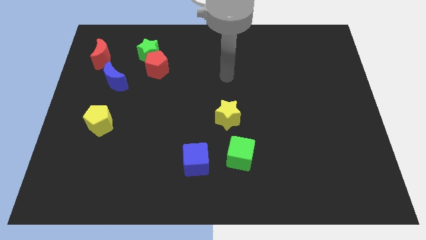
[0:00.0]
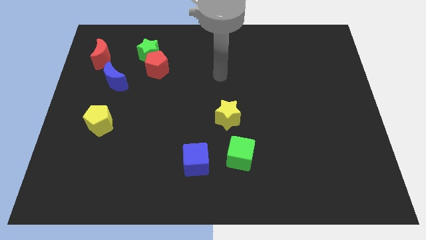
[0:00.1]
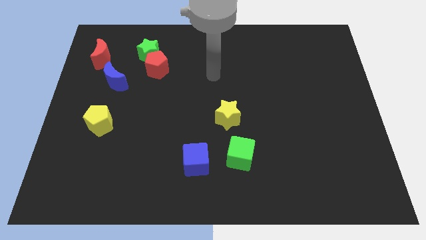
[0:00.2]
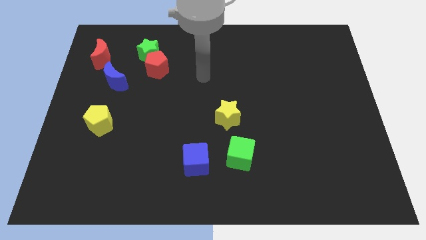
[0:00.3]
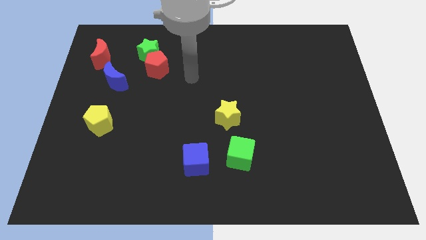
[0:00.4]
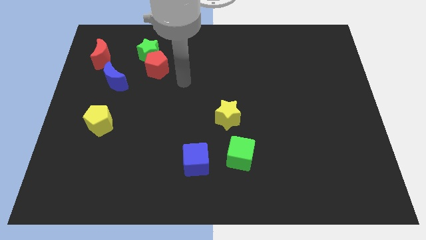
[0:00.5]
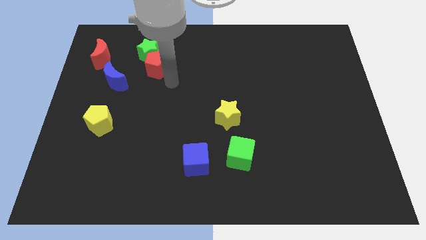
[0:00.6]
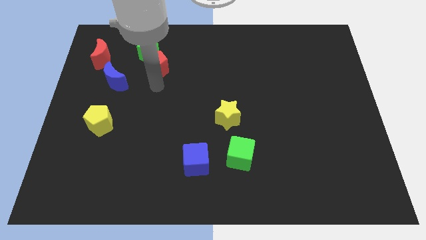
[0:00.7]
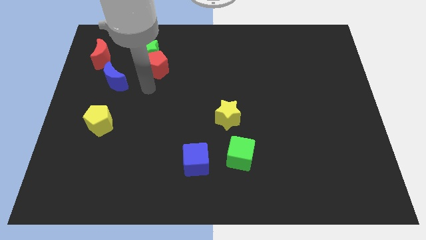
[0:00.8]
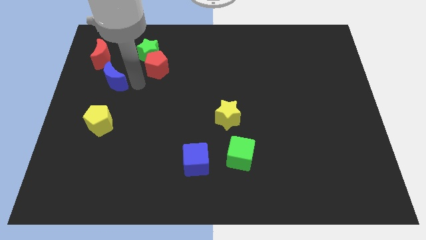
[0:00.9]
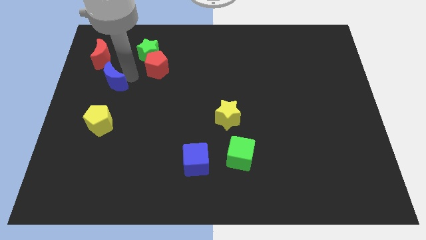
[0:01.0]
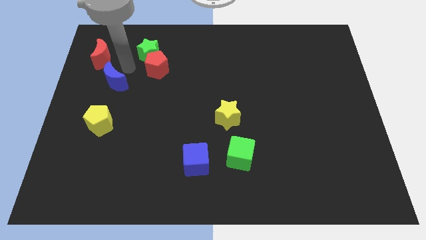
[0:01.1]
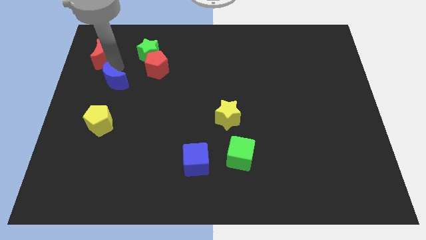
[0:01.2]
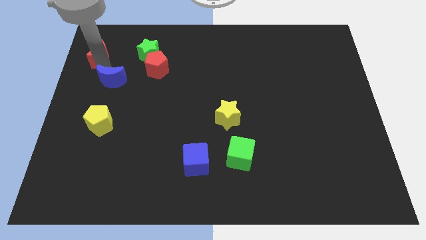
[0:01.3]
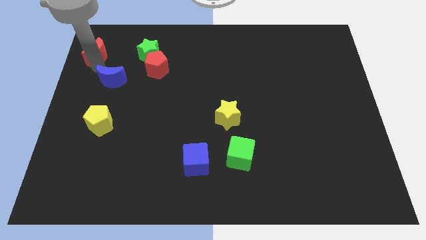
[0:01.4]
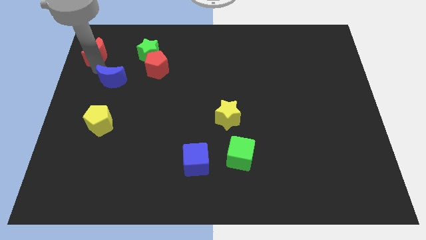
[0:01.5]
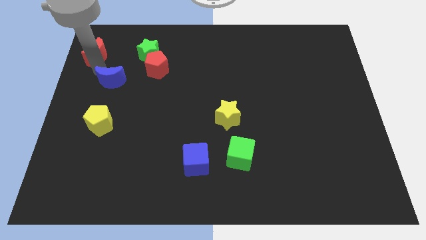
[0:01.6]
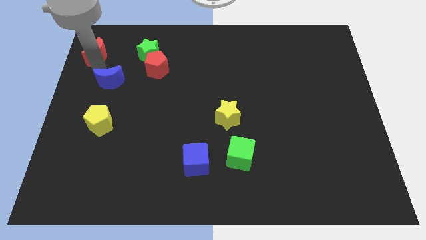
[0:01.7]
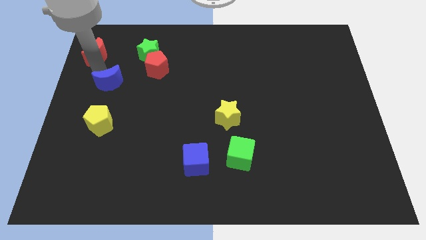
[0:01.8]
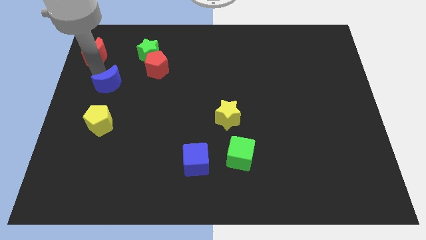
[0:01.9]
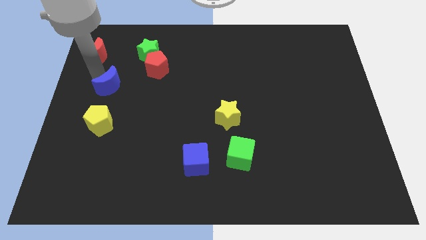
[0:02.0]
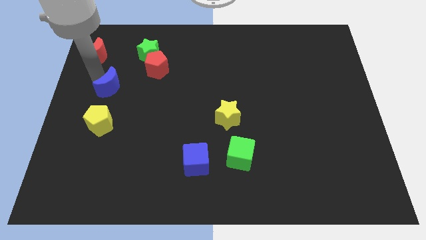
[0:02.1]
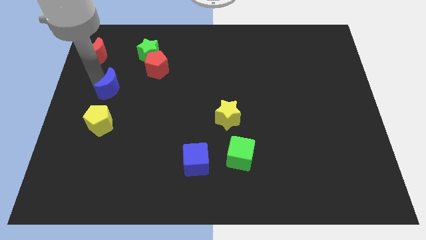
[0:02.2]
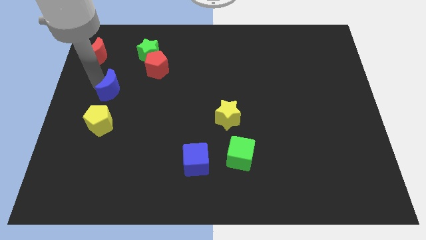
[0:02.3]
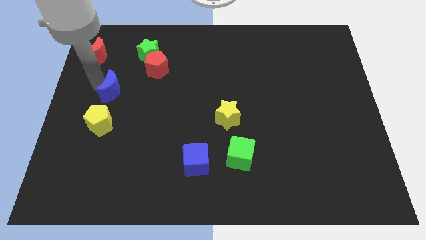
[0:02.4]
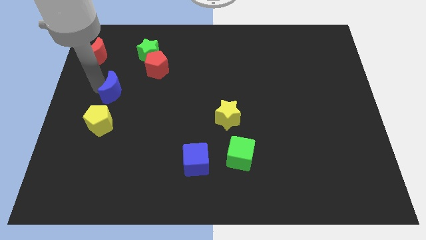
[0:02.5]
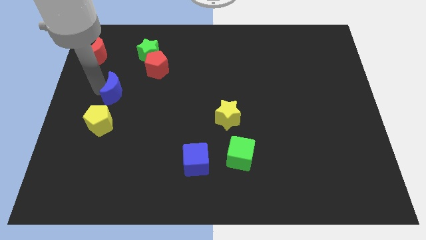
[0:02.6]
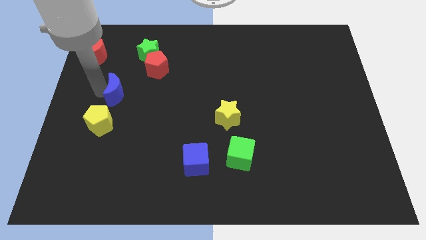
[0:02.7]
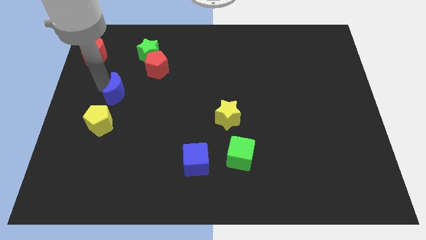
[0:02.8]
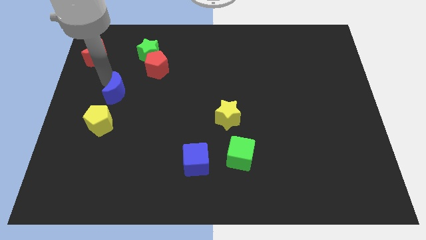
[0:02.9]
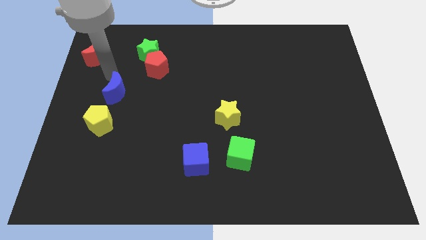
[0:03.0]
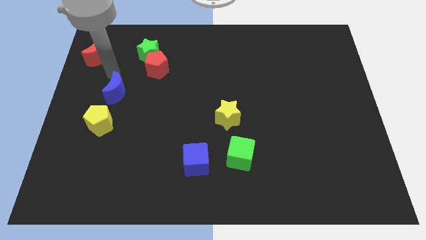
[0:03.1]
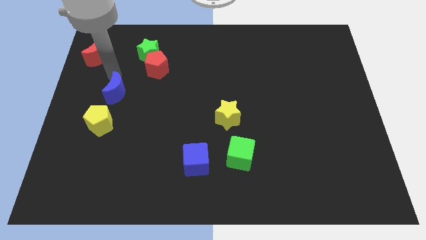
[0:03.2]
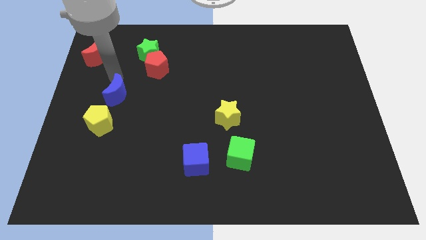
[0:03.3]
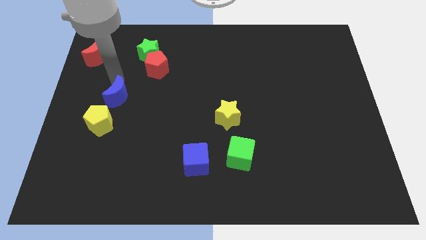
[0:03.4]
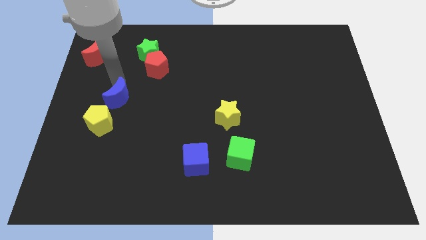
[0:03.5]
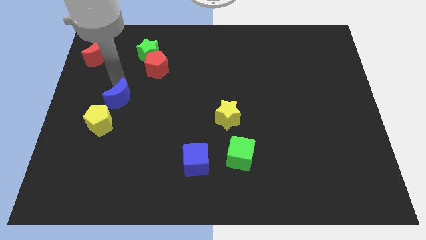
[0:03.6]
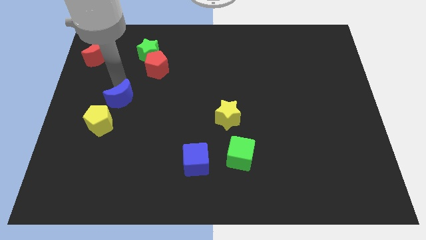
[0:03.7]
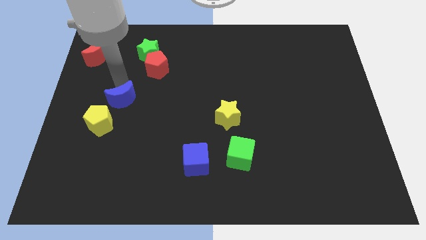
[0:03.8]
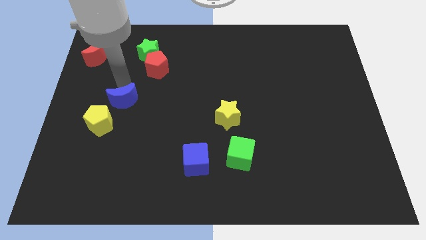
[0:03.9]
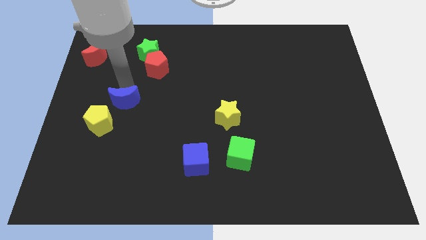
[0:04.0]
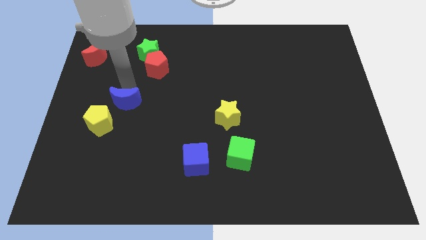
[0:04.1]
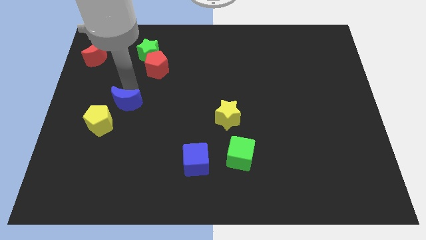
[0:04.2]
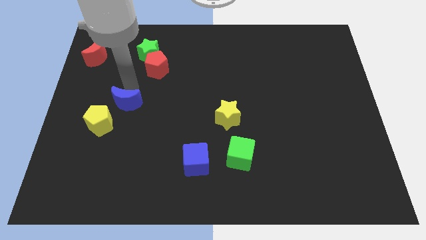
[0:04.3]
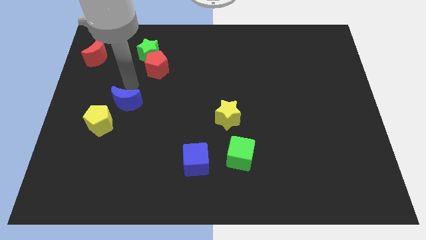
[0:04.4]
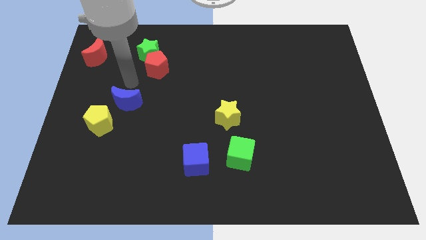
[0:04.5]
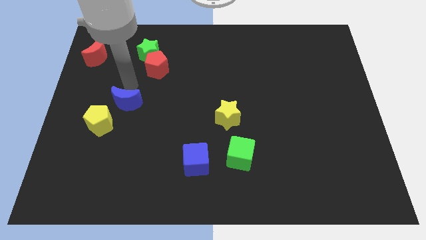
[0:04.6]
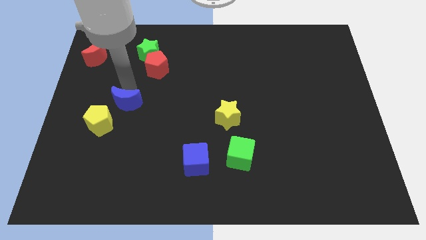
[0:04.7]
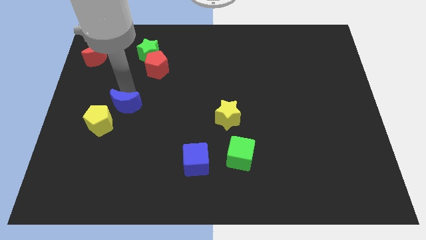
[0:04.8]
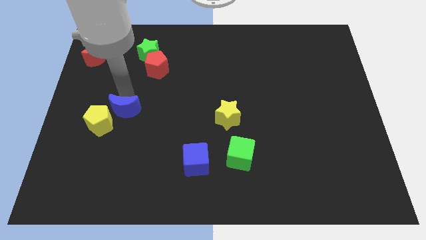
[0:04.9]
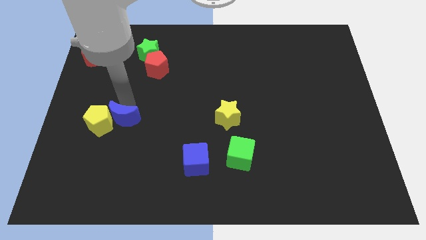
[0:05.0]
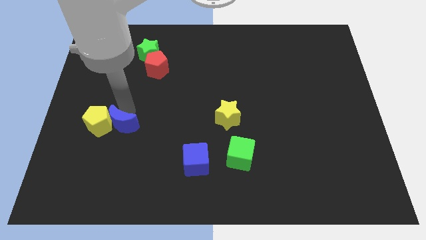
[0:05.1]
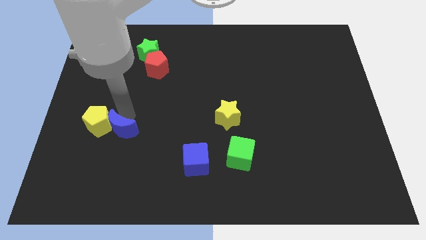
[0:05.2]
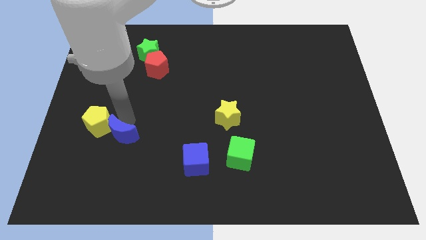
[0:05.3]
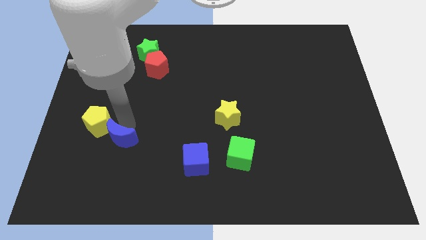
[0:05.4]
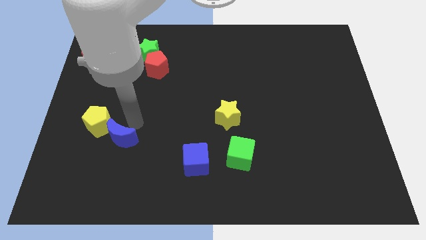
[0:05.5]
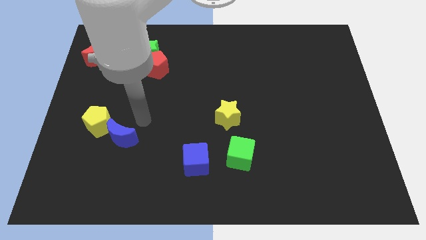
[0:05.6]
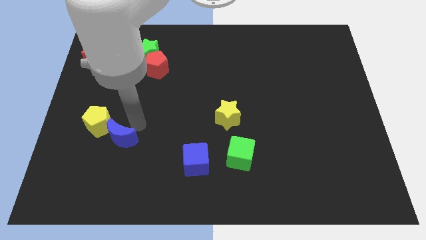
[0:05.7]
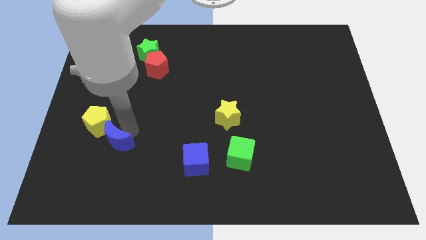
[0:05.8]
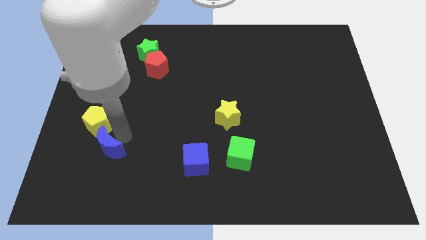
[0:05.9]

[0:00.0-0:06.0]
slide the blue moon below the yellow pentagon

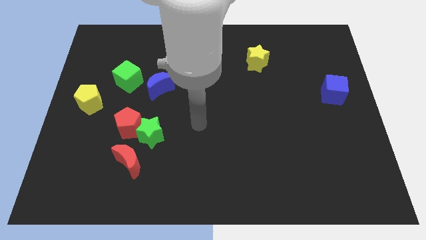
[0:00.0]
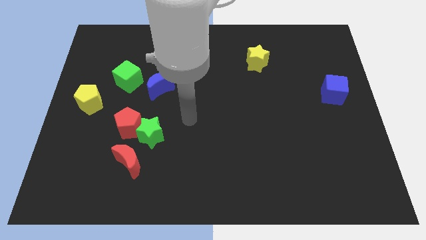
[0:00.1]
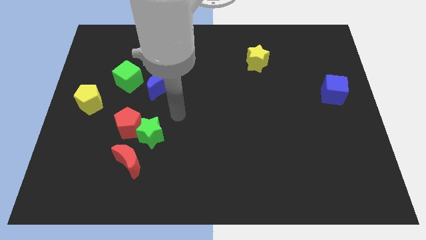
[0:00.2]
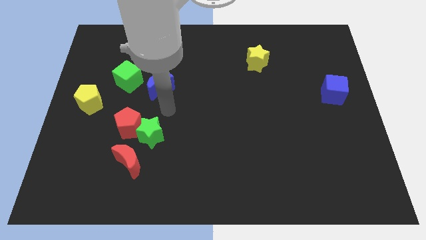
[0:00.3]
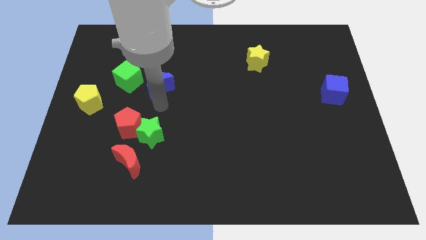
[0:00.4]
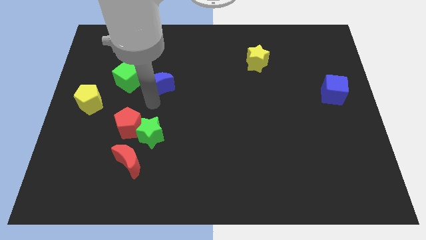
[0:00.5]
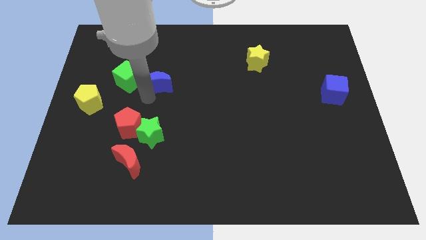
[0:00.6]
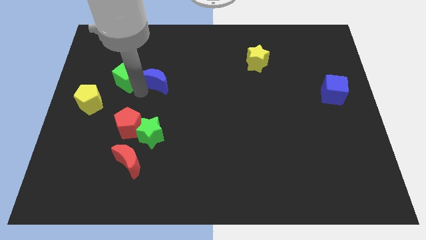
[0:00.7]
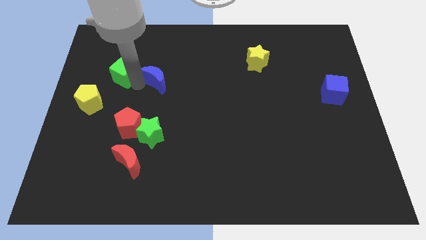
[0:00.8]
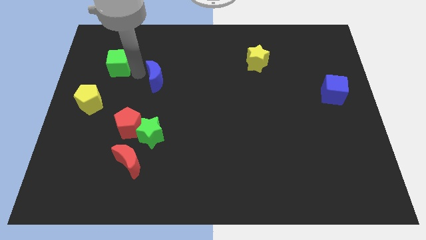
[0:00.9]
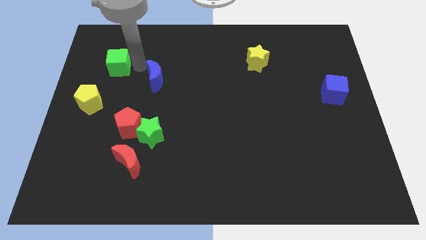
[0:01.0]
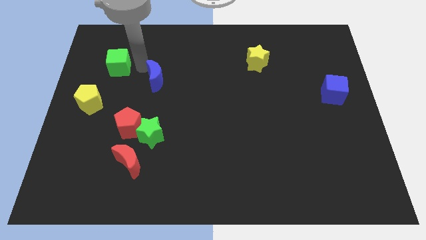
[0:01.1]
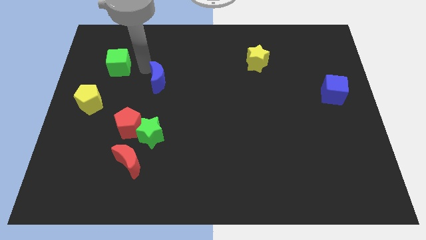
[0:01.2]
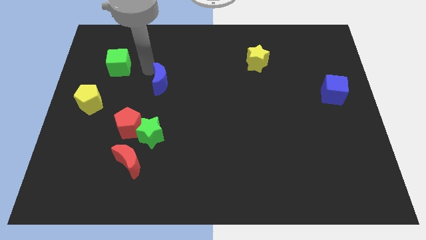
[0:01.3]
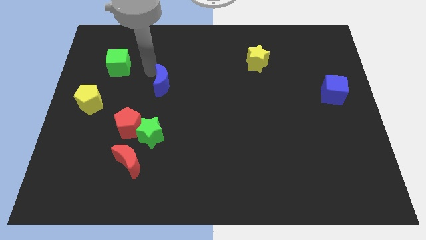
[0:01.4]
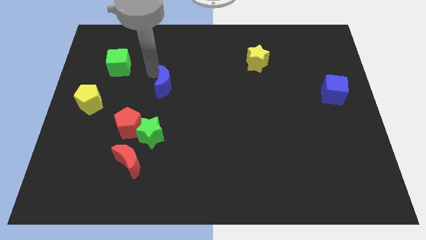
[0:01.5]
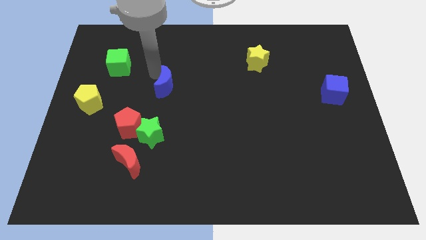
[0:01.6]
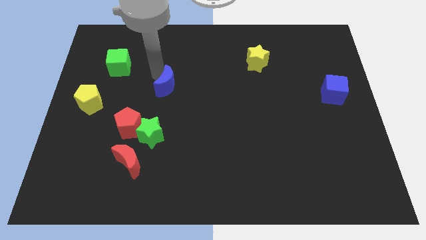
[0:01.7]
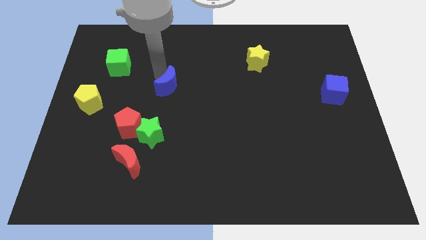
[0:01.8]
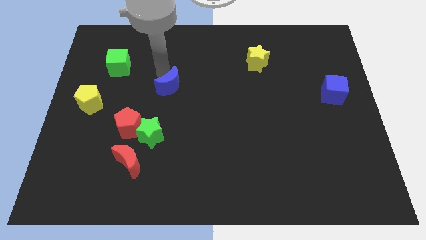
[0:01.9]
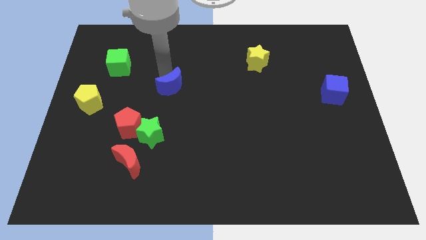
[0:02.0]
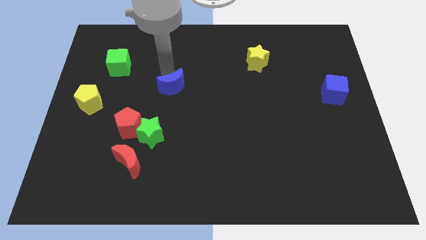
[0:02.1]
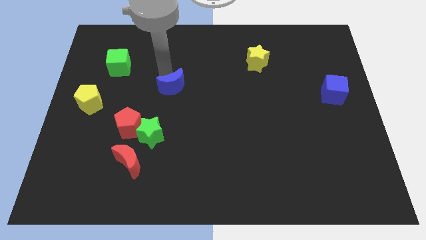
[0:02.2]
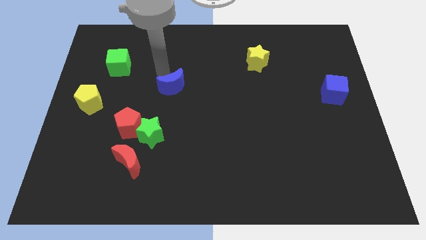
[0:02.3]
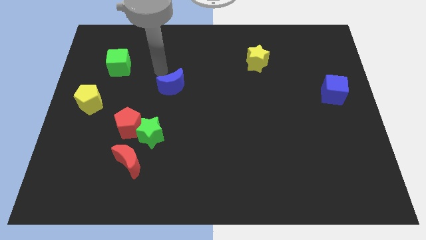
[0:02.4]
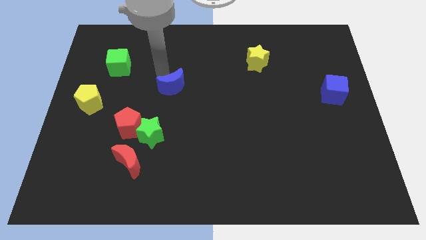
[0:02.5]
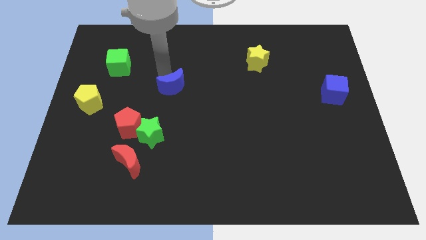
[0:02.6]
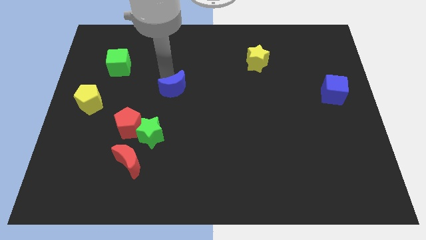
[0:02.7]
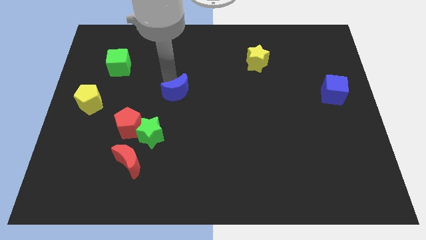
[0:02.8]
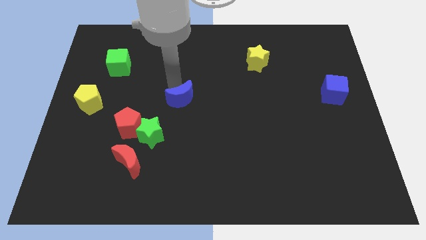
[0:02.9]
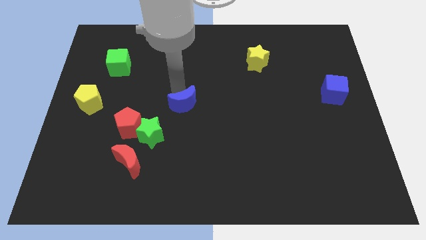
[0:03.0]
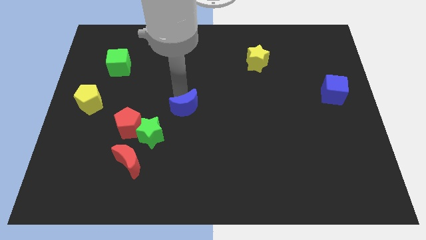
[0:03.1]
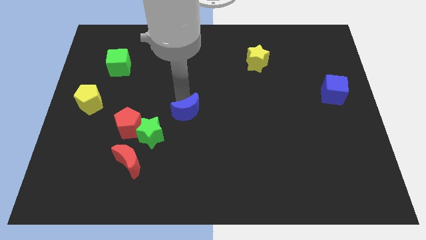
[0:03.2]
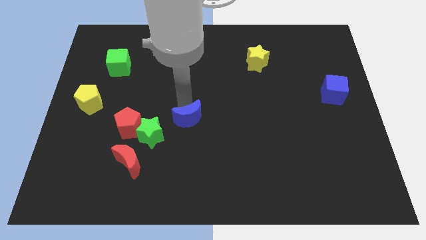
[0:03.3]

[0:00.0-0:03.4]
slide the blue moon to the right of the green star
